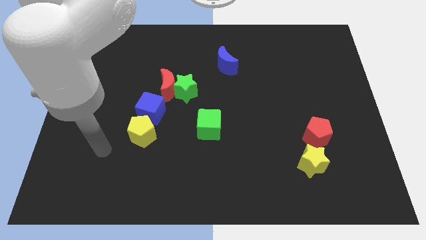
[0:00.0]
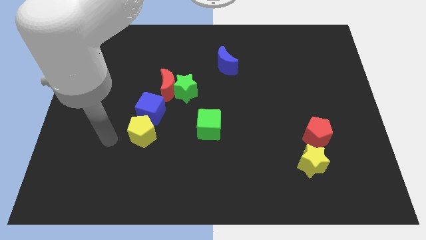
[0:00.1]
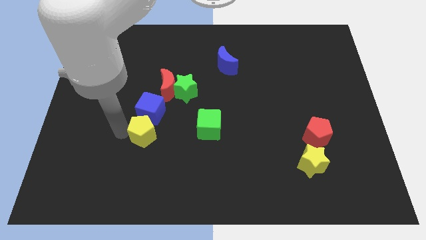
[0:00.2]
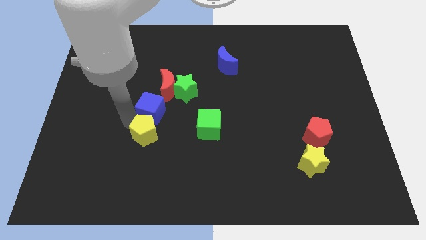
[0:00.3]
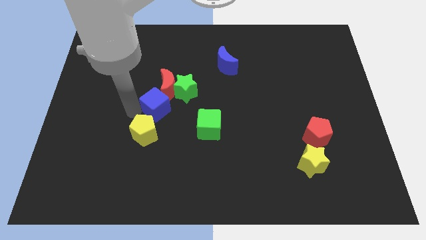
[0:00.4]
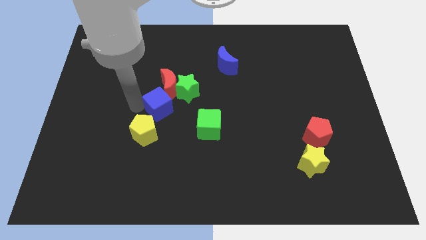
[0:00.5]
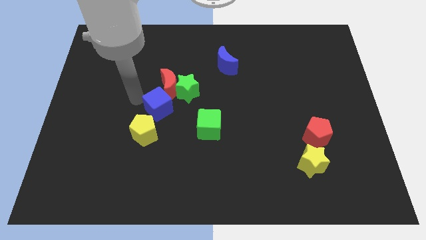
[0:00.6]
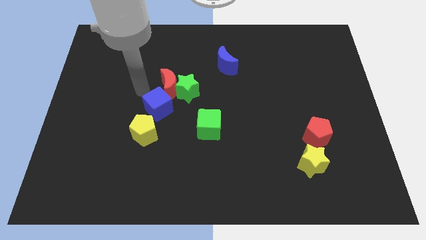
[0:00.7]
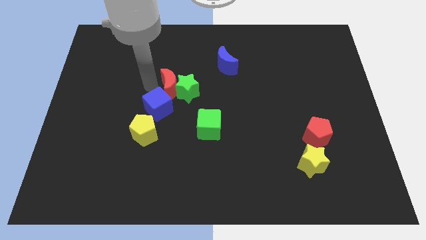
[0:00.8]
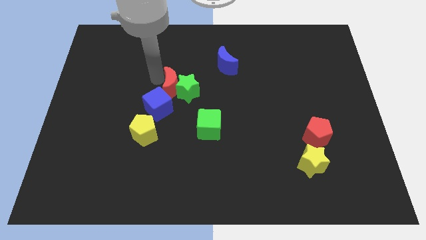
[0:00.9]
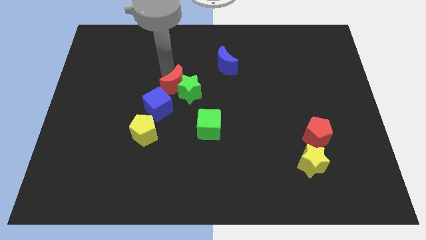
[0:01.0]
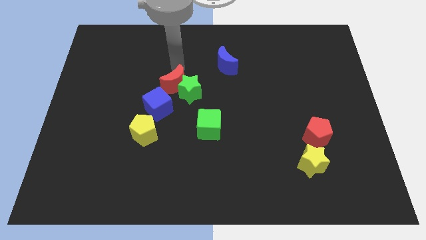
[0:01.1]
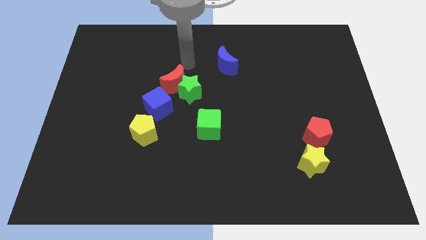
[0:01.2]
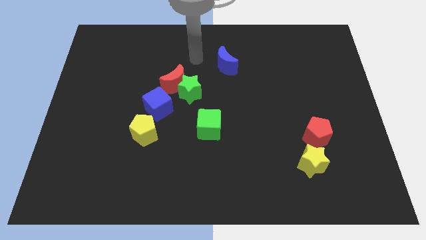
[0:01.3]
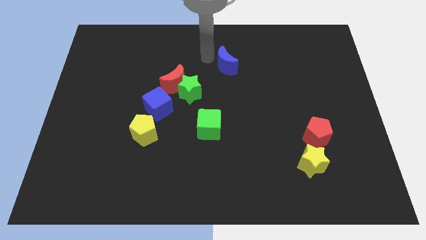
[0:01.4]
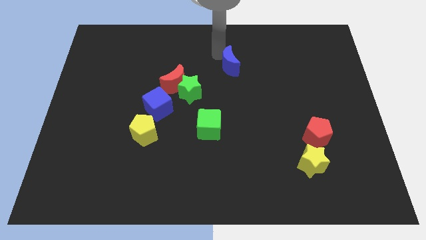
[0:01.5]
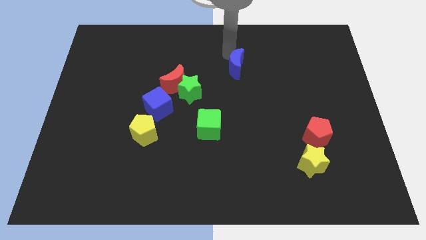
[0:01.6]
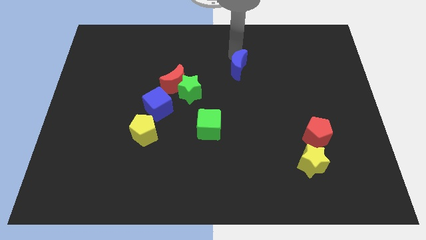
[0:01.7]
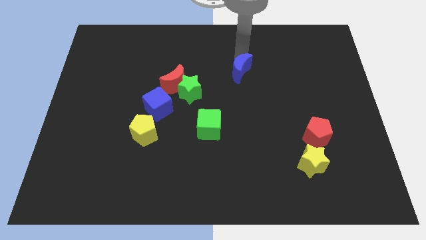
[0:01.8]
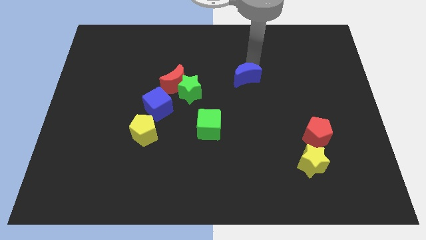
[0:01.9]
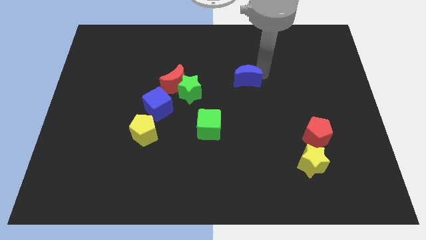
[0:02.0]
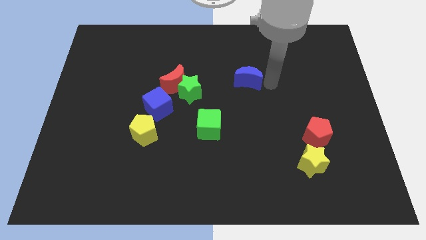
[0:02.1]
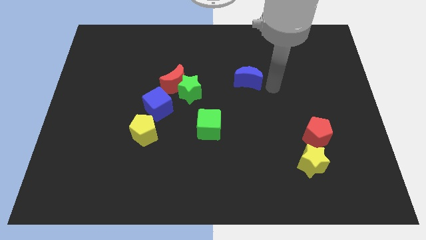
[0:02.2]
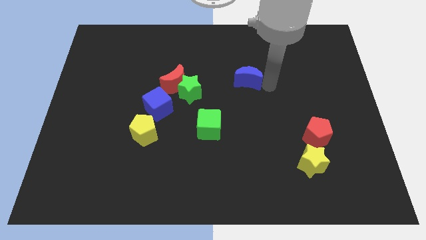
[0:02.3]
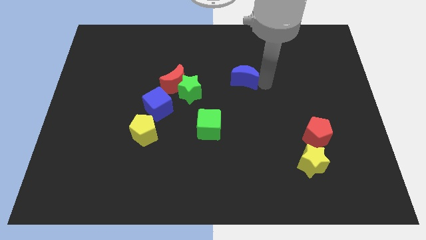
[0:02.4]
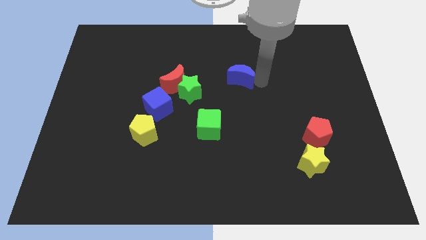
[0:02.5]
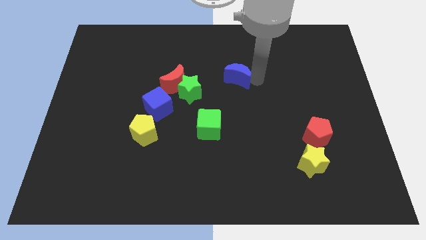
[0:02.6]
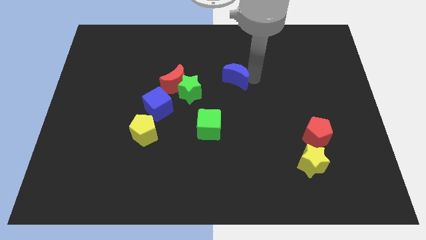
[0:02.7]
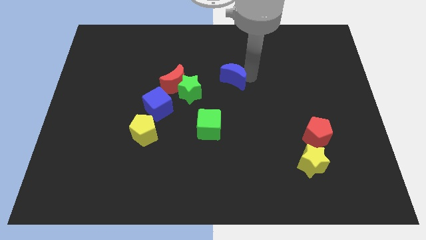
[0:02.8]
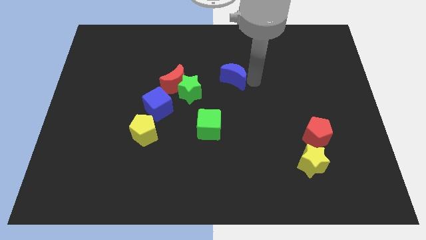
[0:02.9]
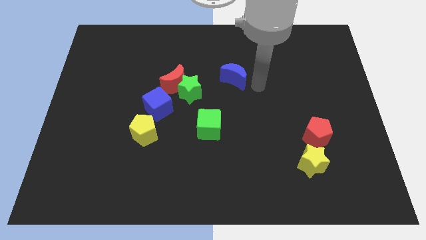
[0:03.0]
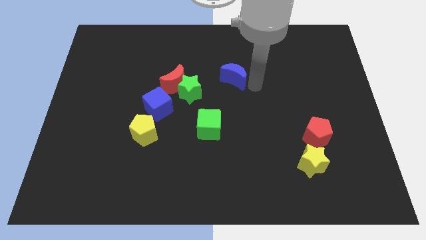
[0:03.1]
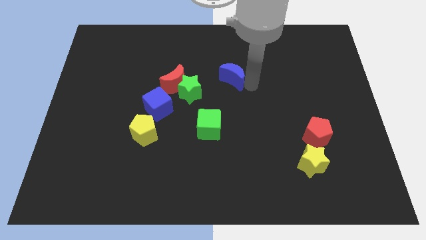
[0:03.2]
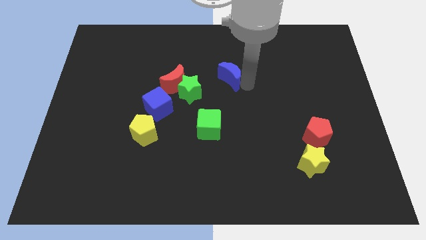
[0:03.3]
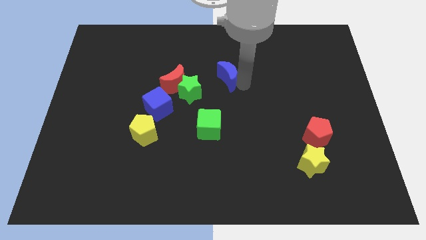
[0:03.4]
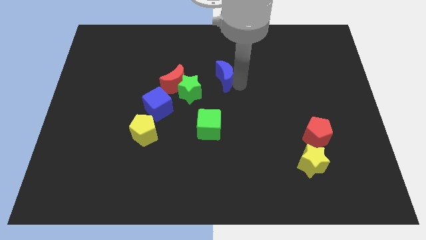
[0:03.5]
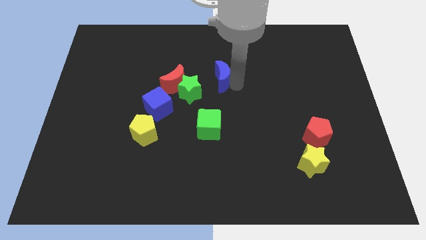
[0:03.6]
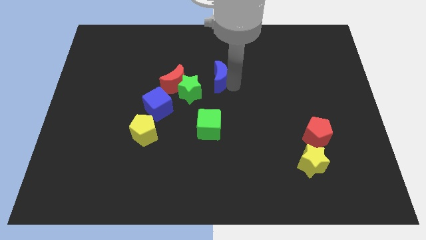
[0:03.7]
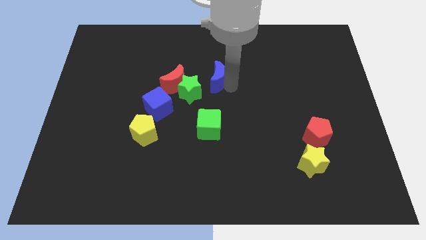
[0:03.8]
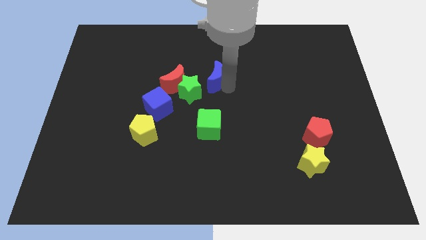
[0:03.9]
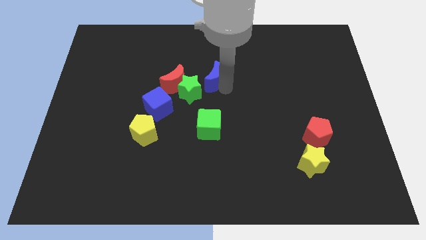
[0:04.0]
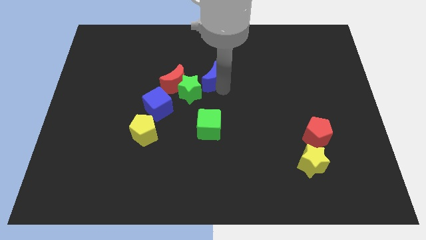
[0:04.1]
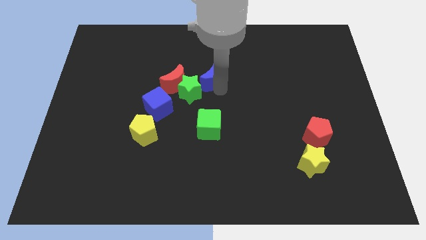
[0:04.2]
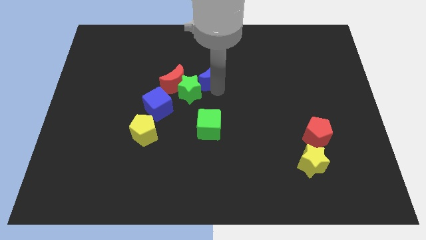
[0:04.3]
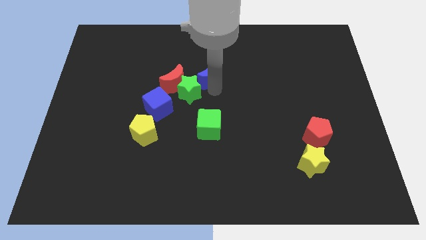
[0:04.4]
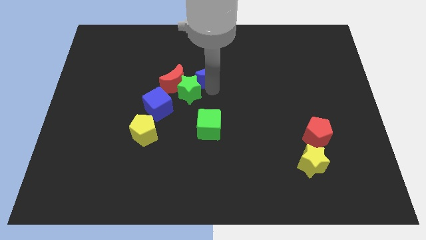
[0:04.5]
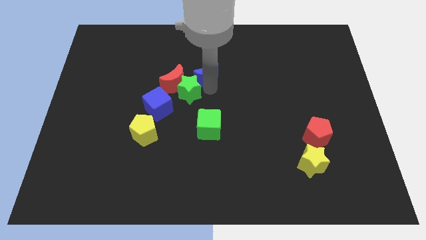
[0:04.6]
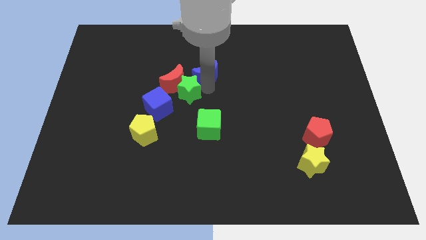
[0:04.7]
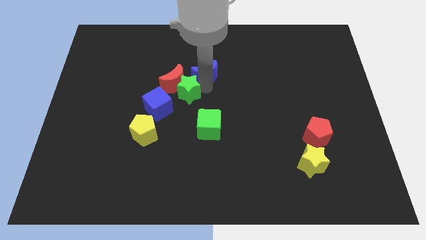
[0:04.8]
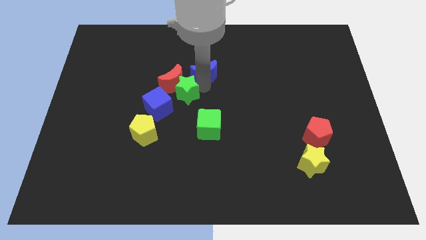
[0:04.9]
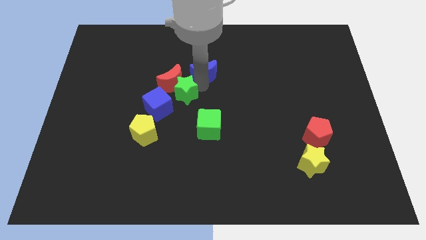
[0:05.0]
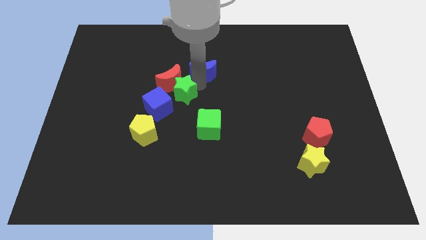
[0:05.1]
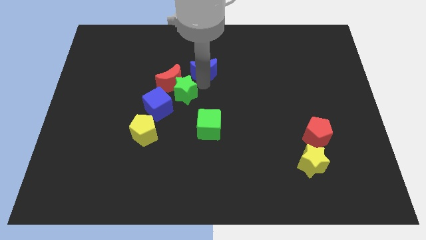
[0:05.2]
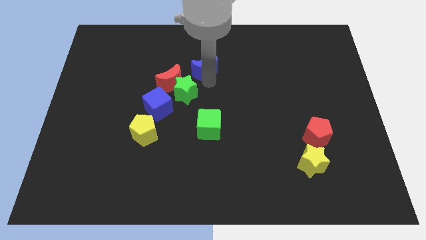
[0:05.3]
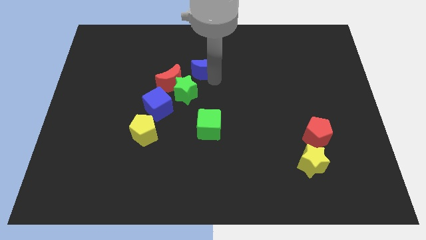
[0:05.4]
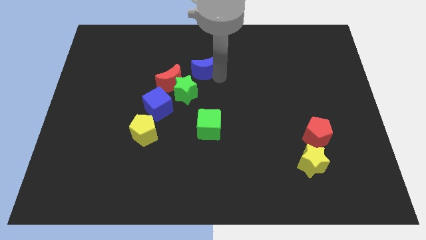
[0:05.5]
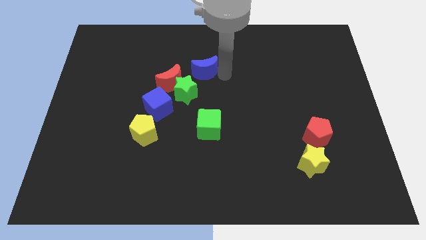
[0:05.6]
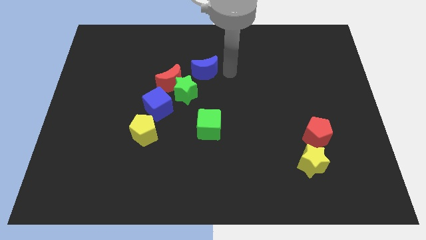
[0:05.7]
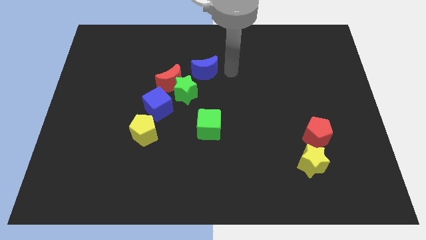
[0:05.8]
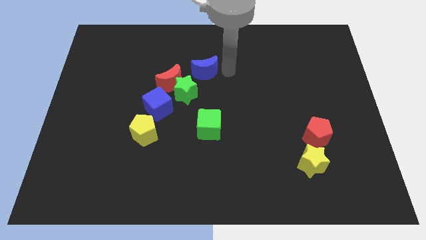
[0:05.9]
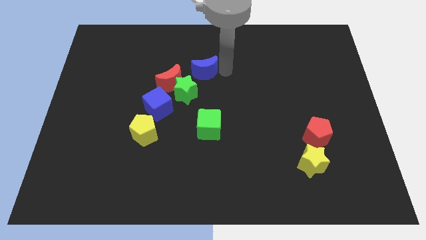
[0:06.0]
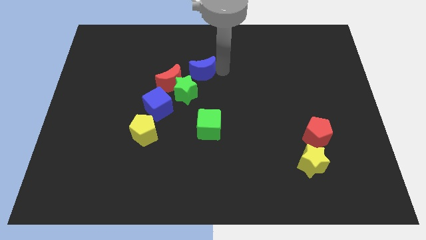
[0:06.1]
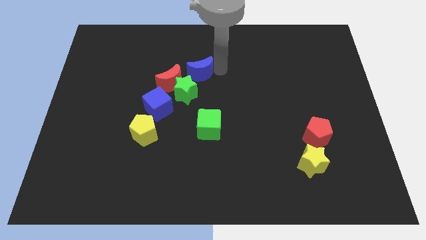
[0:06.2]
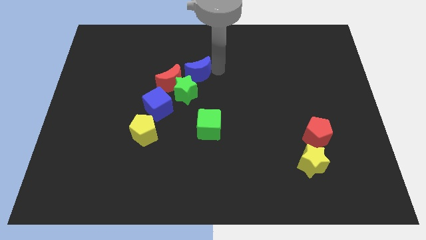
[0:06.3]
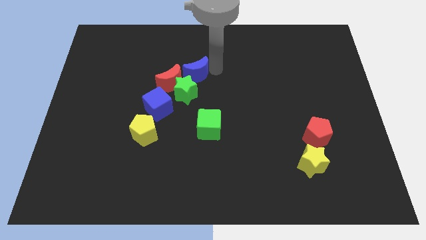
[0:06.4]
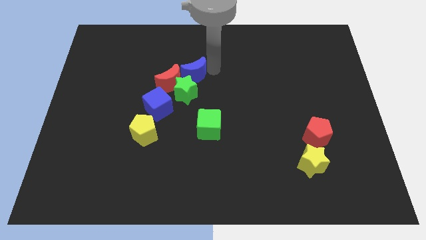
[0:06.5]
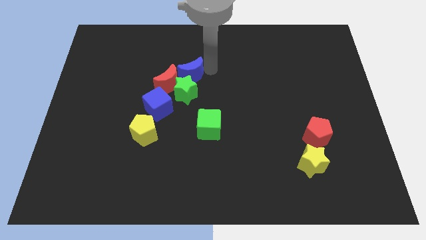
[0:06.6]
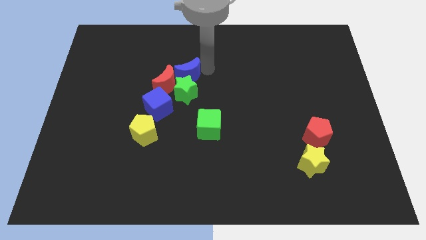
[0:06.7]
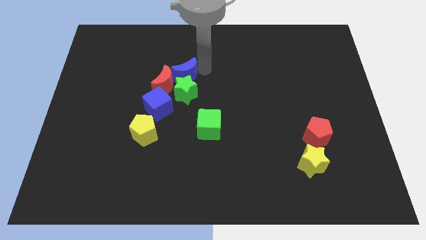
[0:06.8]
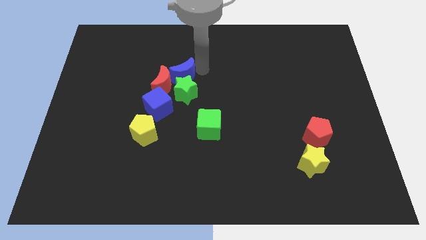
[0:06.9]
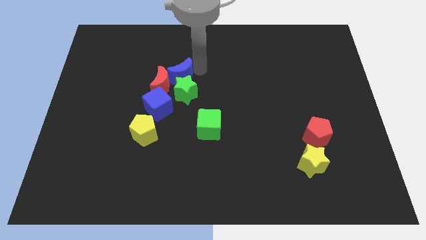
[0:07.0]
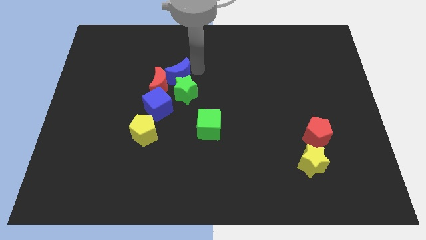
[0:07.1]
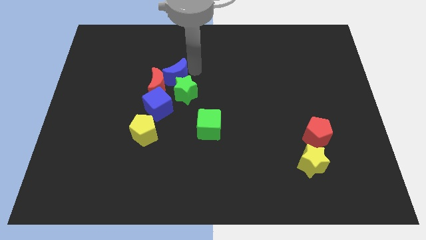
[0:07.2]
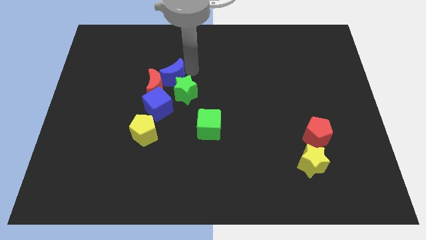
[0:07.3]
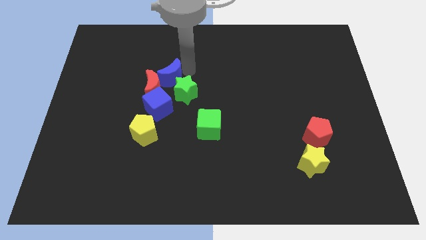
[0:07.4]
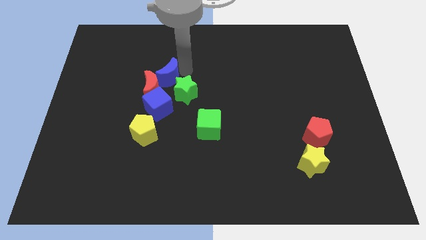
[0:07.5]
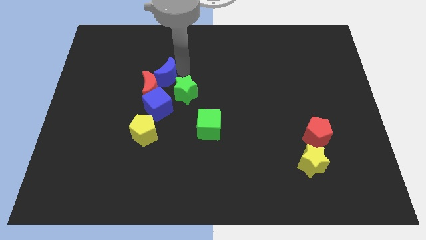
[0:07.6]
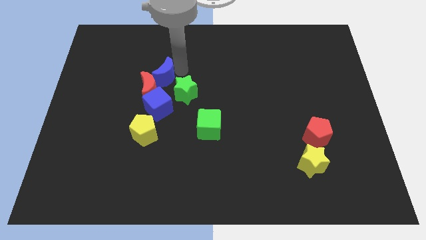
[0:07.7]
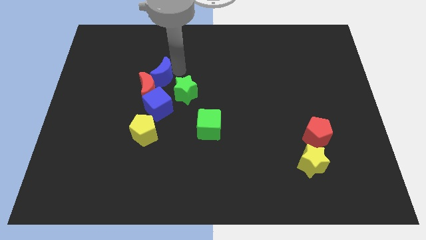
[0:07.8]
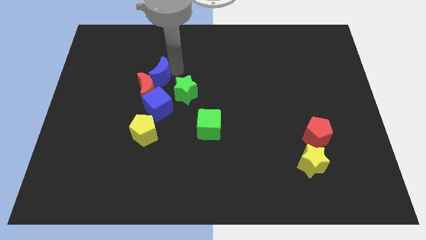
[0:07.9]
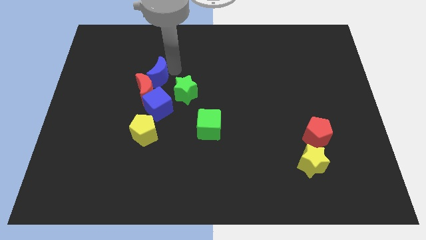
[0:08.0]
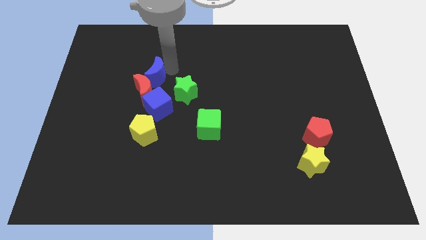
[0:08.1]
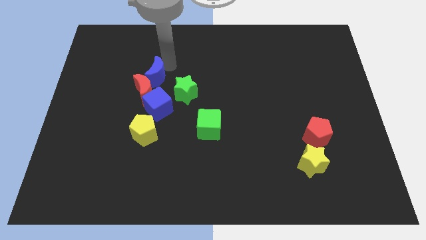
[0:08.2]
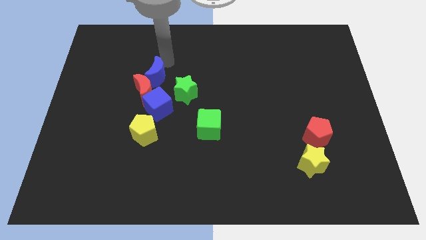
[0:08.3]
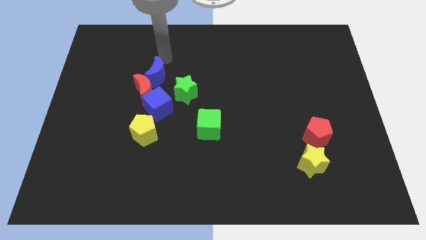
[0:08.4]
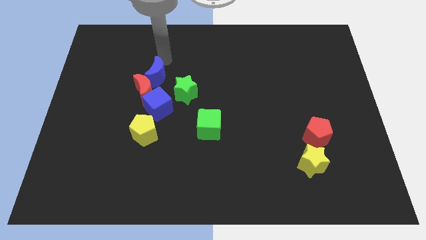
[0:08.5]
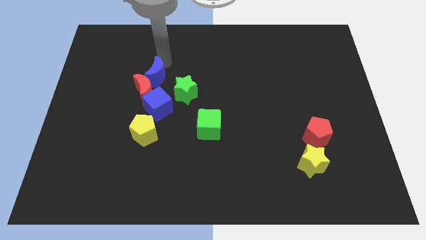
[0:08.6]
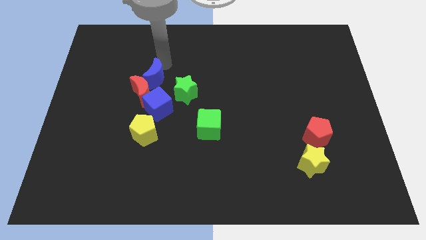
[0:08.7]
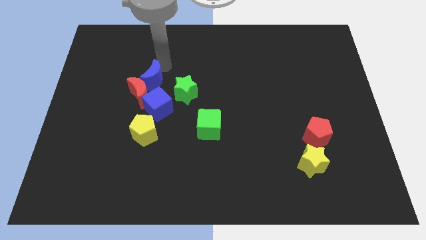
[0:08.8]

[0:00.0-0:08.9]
push the blue moon to the top of the yellow pentagon
